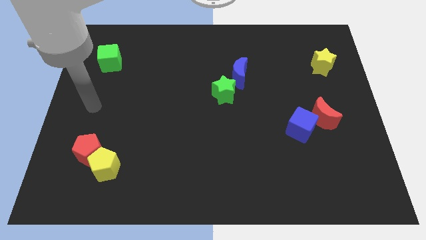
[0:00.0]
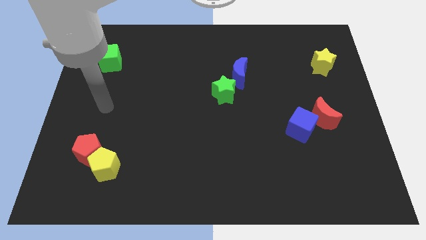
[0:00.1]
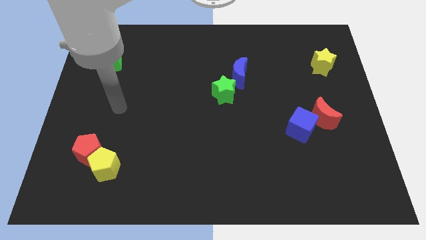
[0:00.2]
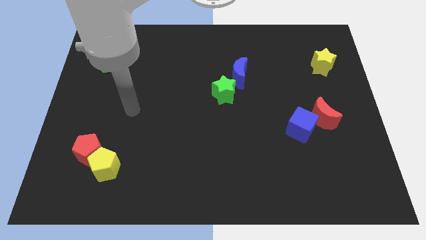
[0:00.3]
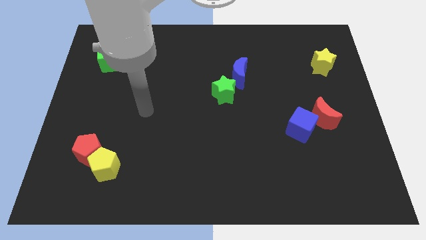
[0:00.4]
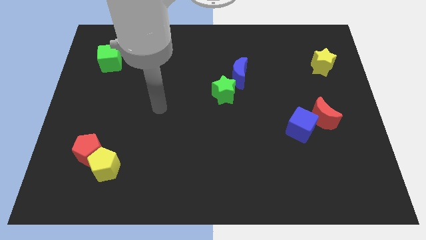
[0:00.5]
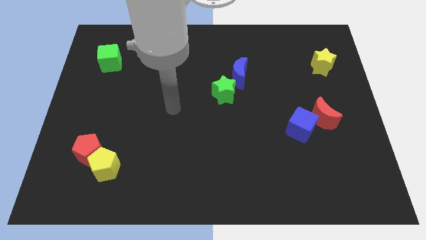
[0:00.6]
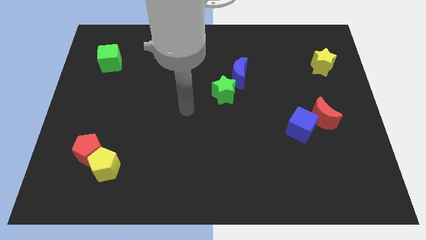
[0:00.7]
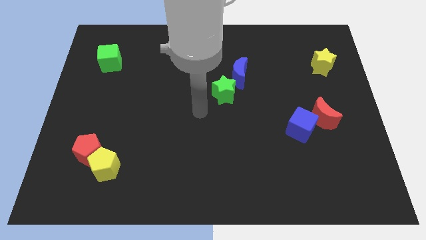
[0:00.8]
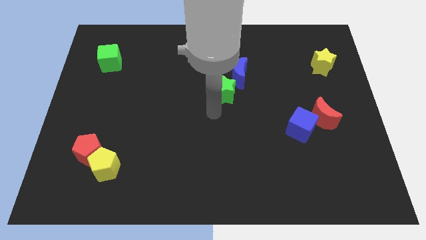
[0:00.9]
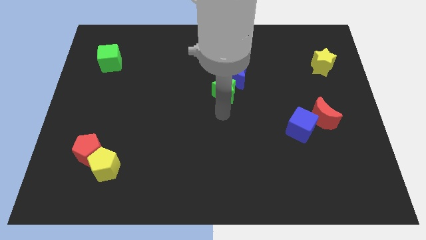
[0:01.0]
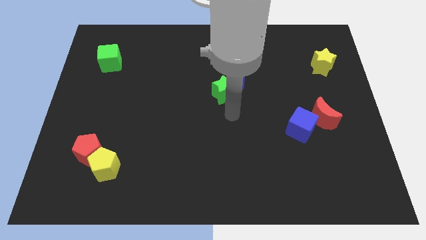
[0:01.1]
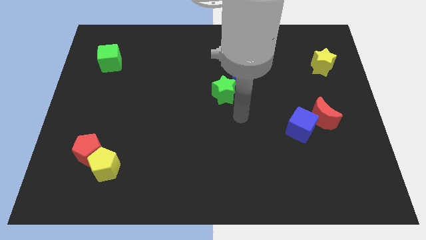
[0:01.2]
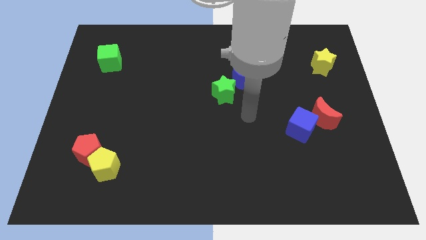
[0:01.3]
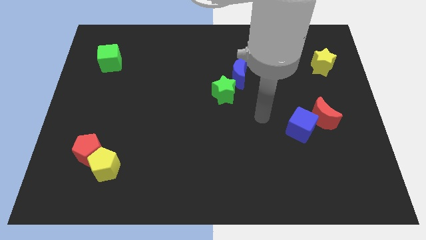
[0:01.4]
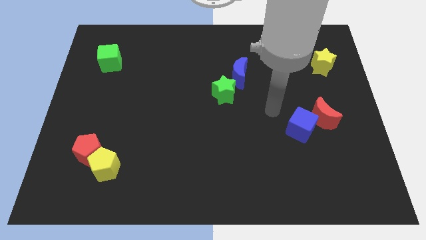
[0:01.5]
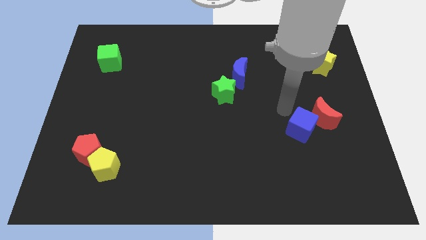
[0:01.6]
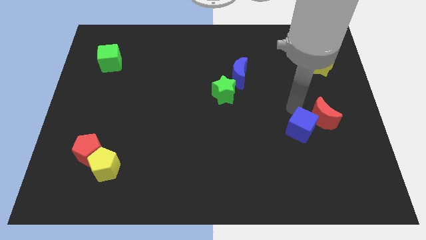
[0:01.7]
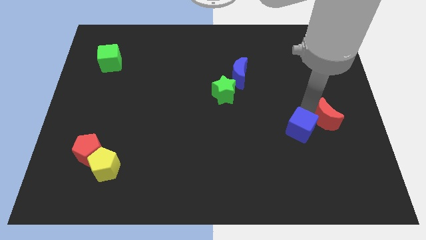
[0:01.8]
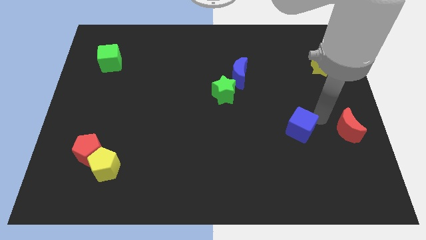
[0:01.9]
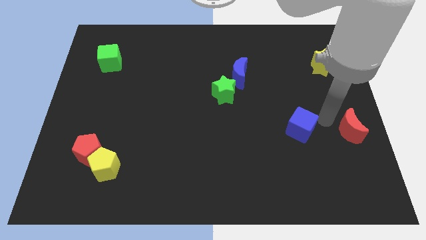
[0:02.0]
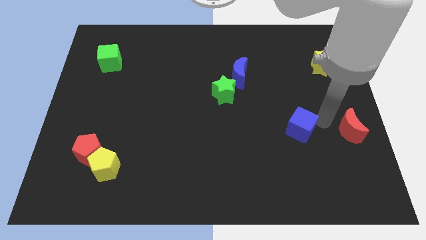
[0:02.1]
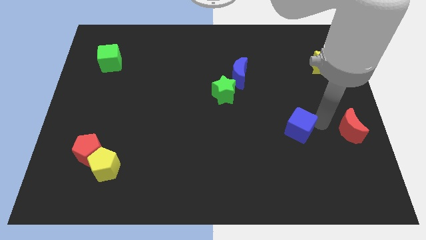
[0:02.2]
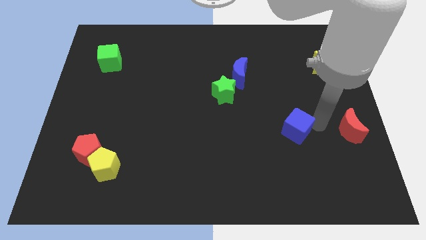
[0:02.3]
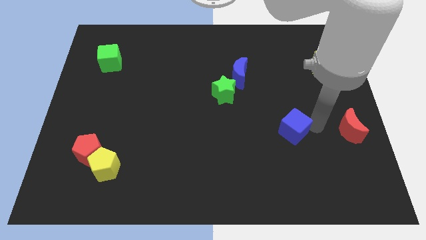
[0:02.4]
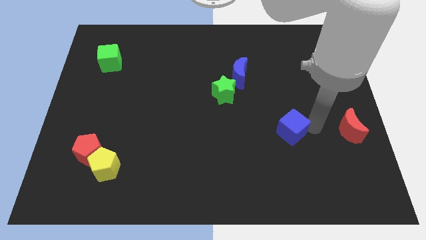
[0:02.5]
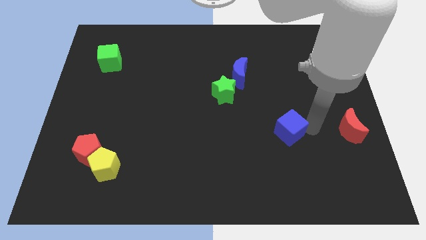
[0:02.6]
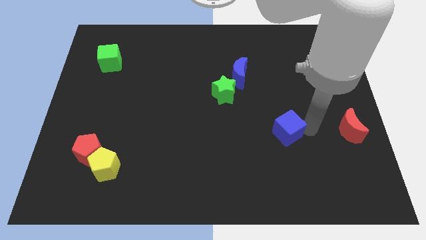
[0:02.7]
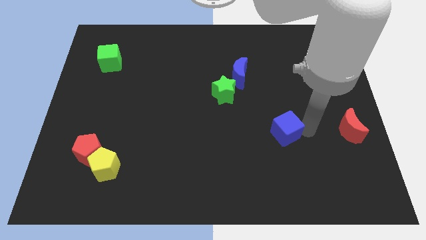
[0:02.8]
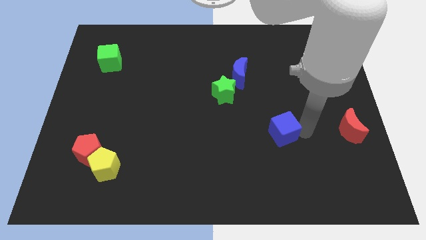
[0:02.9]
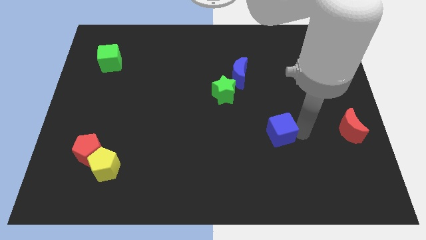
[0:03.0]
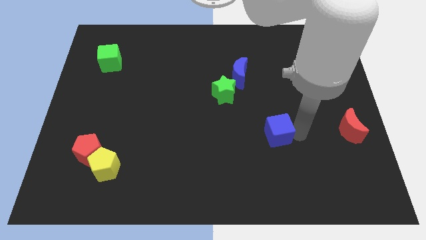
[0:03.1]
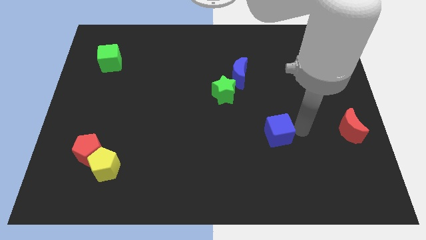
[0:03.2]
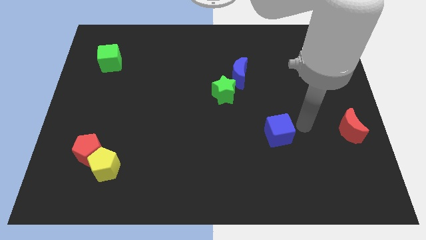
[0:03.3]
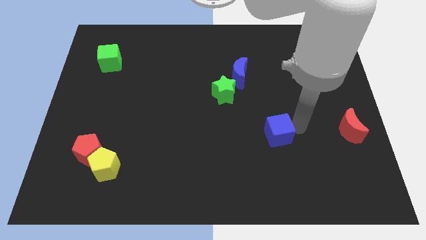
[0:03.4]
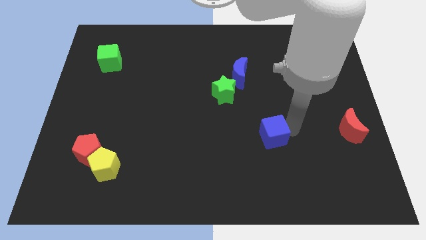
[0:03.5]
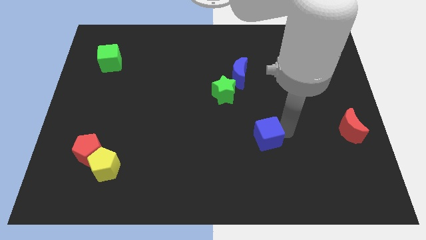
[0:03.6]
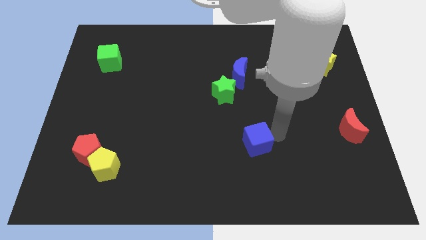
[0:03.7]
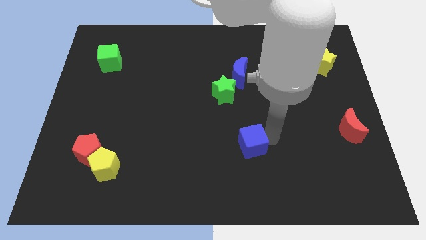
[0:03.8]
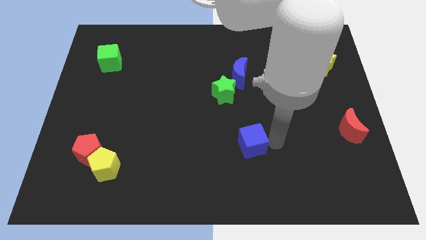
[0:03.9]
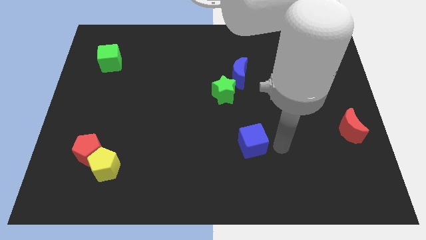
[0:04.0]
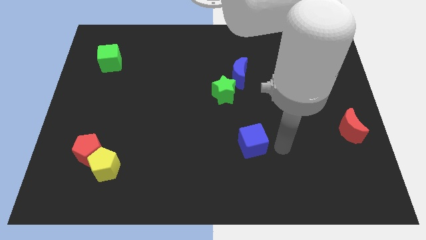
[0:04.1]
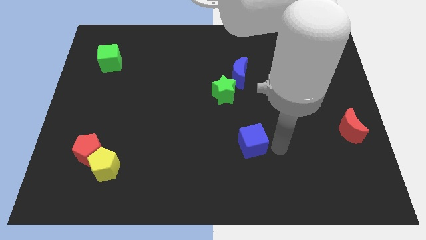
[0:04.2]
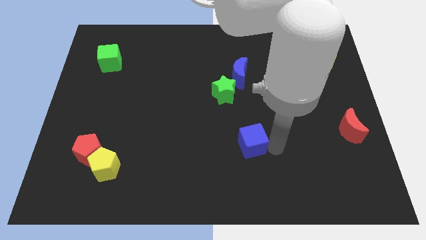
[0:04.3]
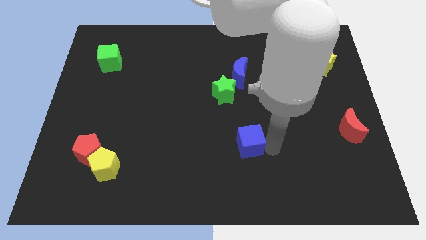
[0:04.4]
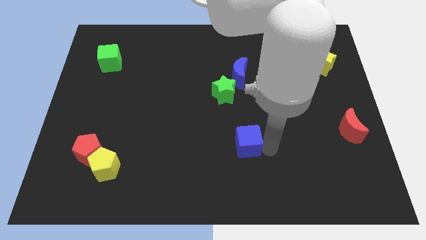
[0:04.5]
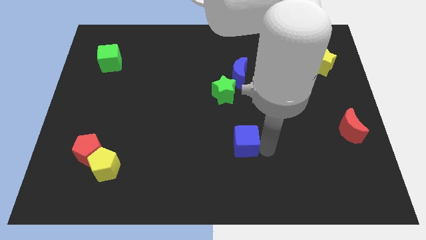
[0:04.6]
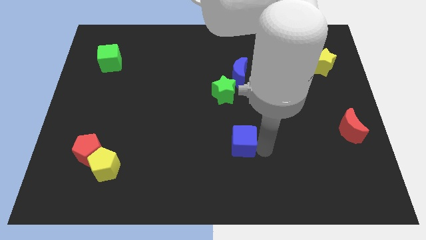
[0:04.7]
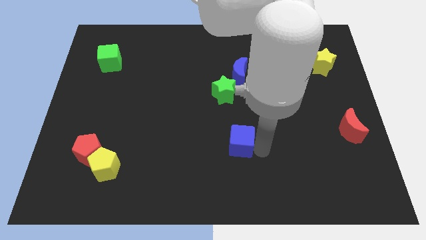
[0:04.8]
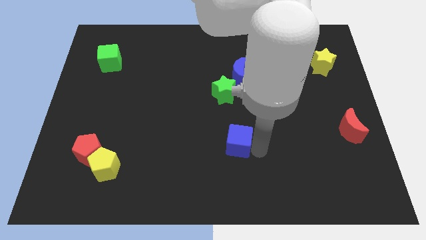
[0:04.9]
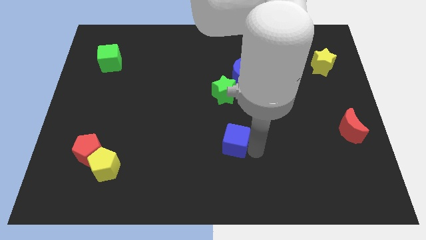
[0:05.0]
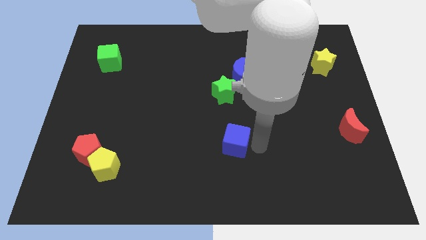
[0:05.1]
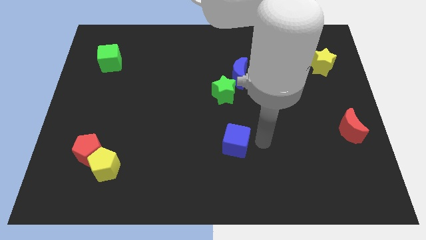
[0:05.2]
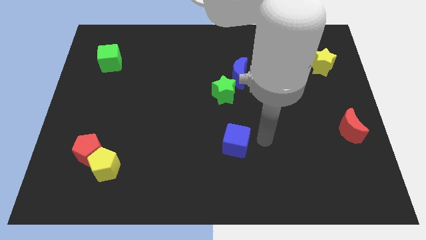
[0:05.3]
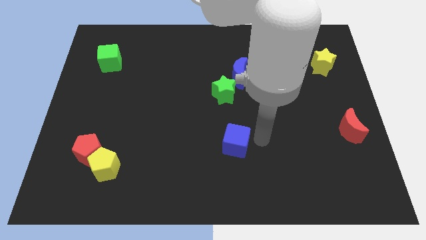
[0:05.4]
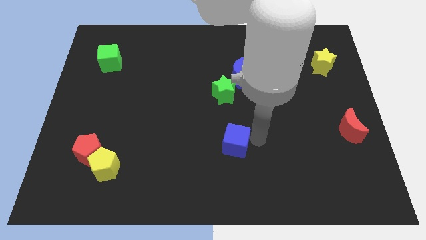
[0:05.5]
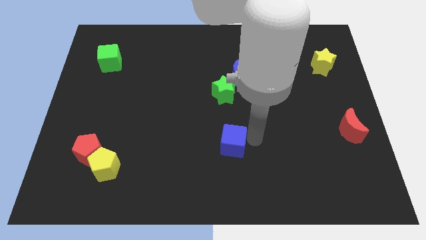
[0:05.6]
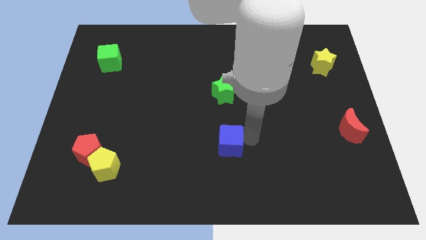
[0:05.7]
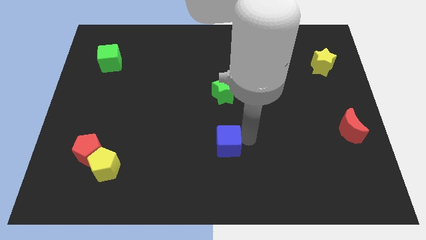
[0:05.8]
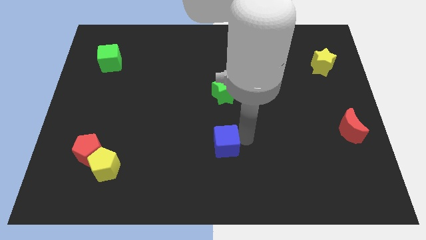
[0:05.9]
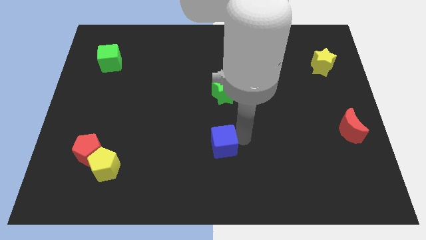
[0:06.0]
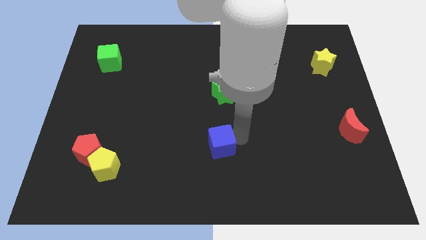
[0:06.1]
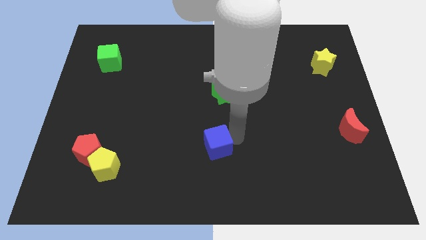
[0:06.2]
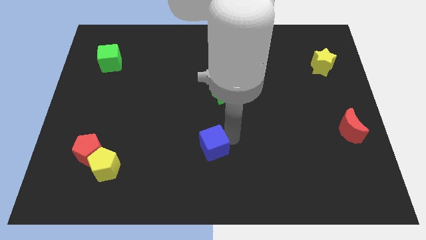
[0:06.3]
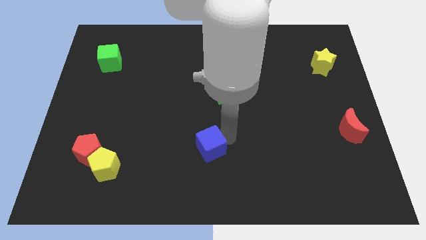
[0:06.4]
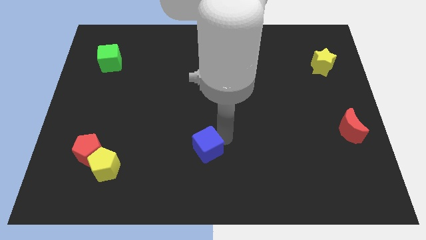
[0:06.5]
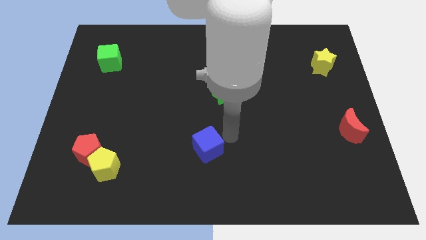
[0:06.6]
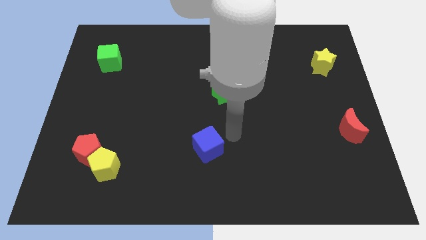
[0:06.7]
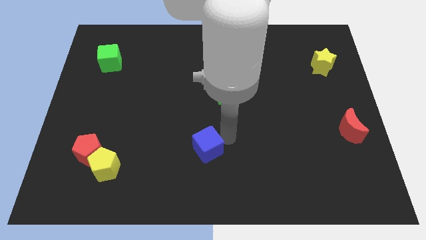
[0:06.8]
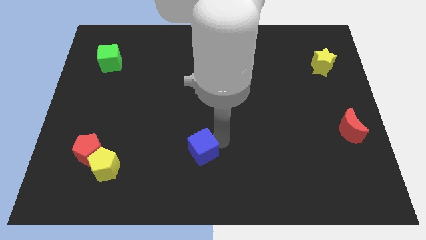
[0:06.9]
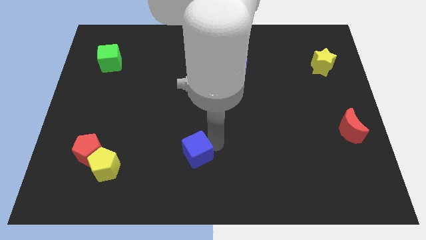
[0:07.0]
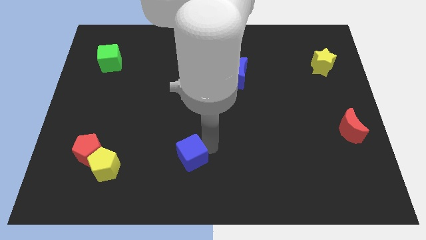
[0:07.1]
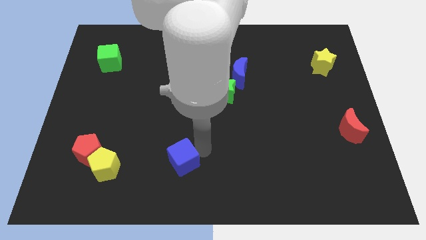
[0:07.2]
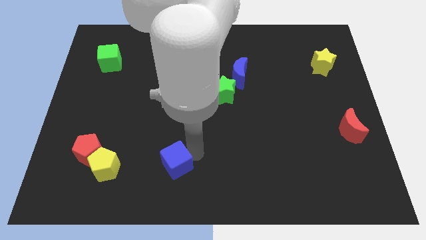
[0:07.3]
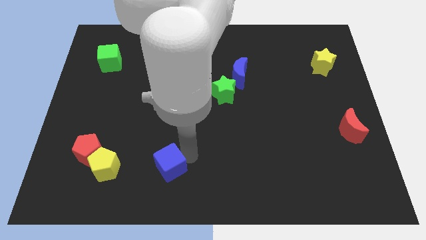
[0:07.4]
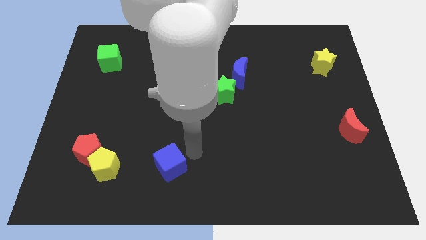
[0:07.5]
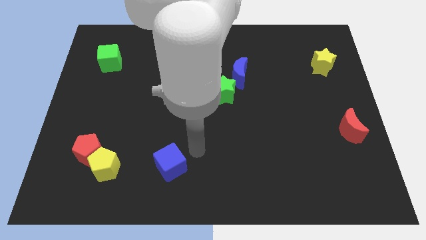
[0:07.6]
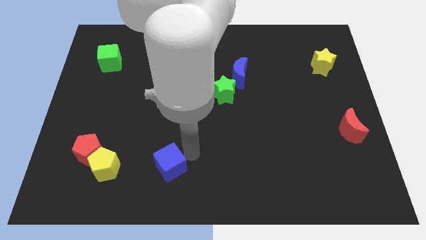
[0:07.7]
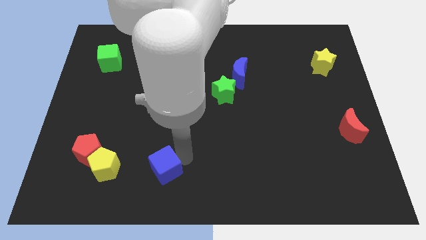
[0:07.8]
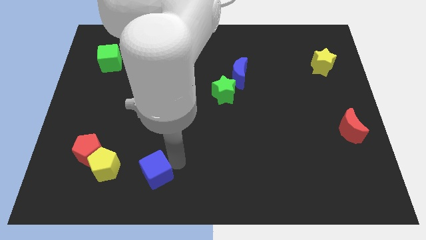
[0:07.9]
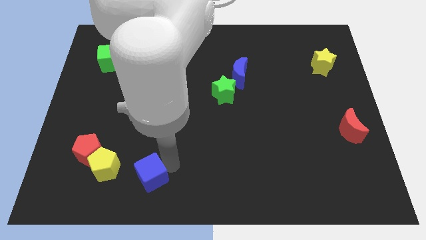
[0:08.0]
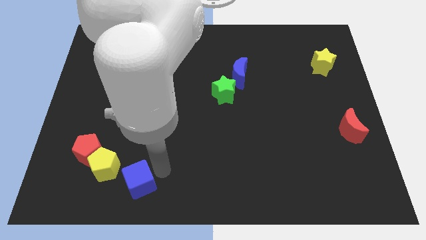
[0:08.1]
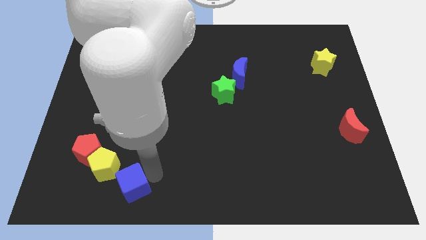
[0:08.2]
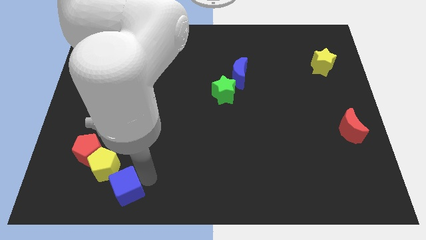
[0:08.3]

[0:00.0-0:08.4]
put the blue cube to the bottom right of the red pentagon
